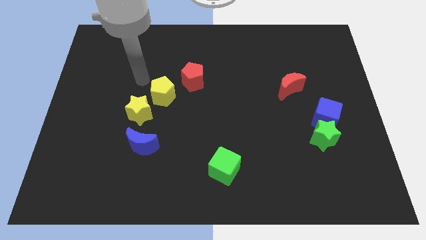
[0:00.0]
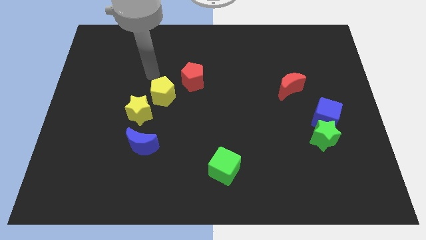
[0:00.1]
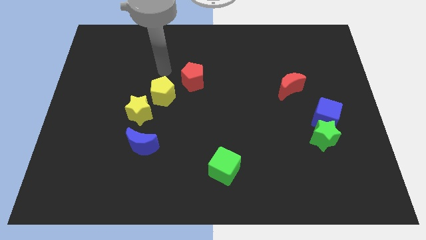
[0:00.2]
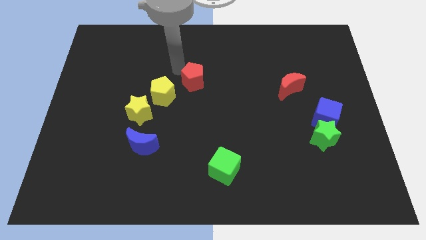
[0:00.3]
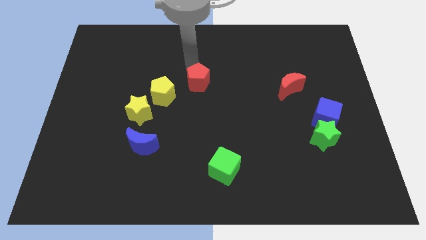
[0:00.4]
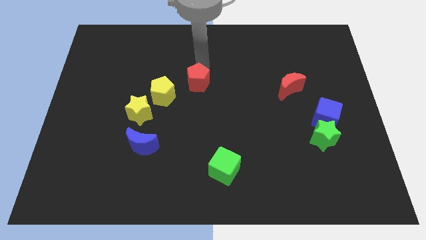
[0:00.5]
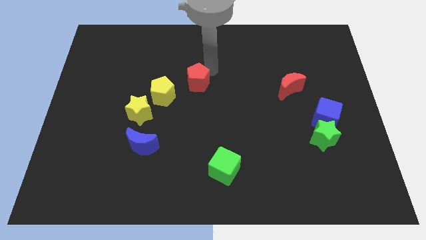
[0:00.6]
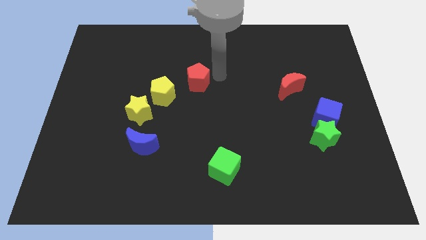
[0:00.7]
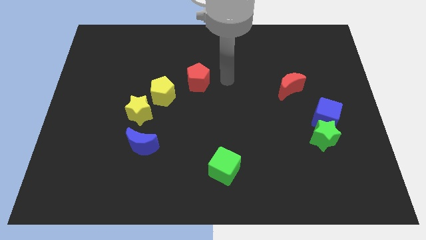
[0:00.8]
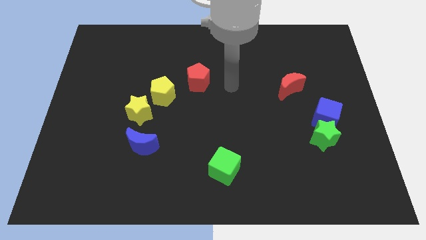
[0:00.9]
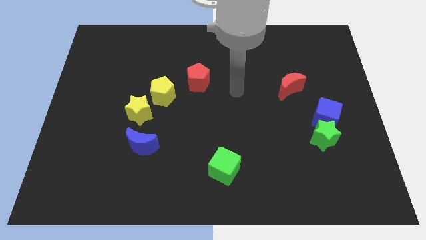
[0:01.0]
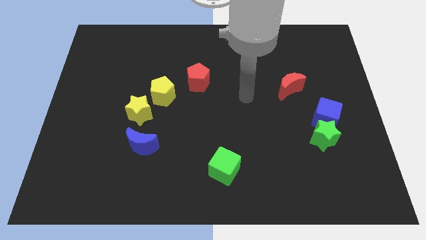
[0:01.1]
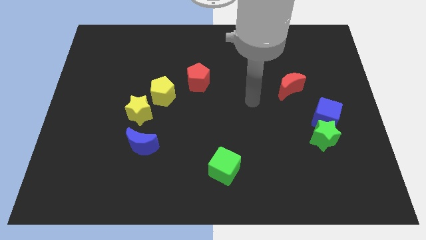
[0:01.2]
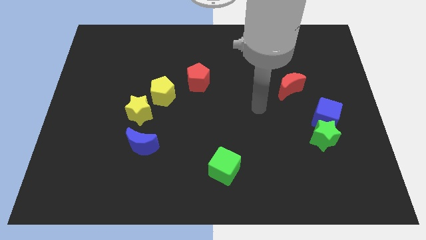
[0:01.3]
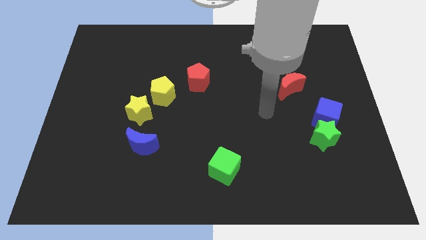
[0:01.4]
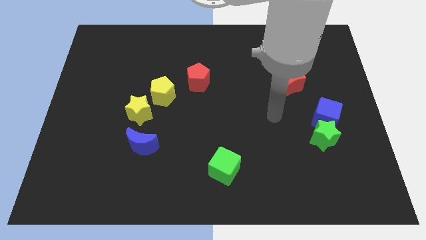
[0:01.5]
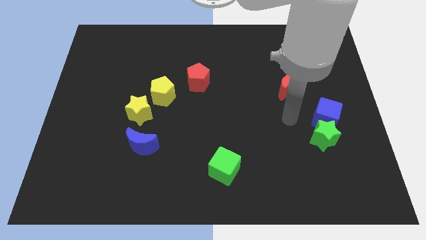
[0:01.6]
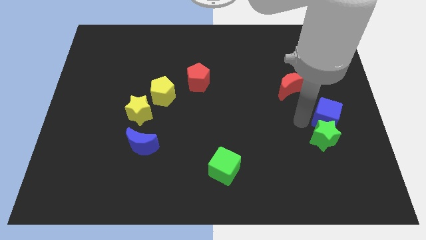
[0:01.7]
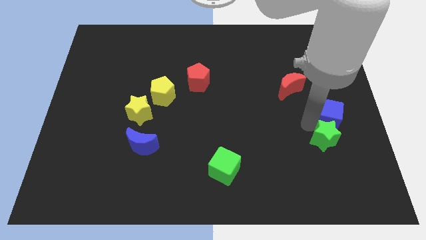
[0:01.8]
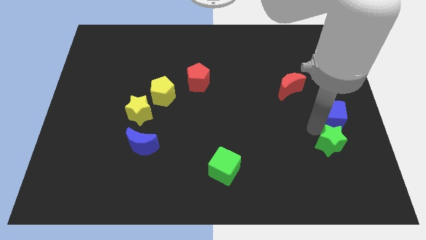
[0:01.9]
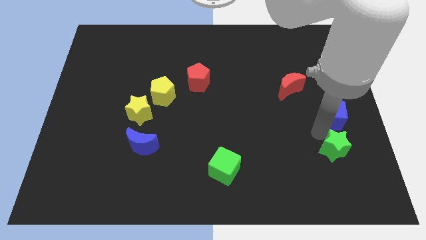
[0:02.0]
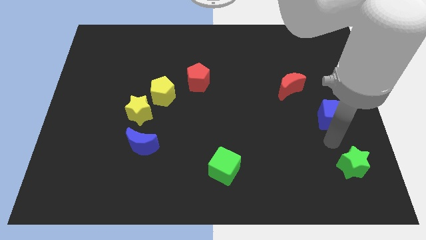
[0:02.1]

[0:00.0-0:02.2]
move the blue cube away from the green star

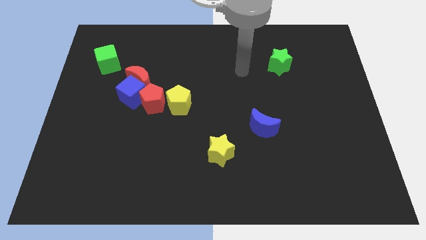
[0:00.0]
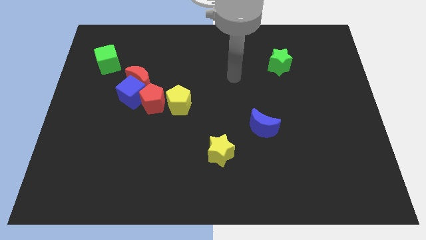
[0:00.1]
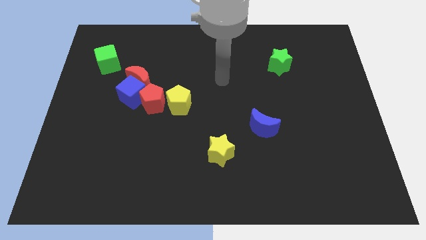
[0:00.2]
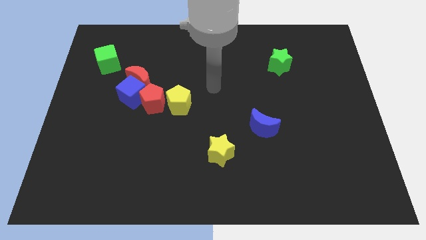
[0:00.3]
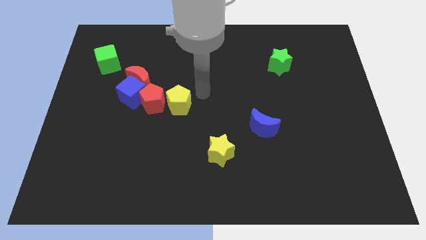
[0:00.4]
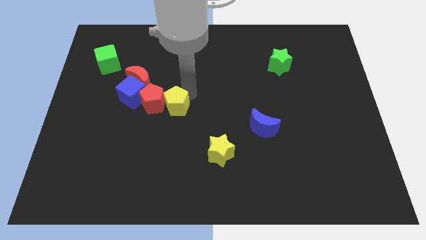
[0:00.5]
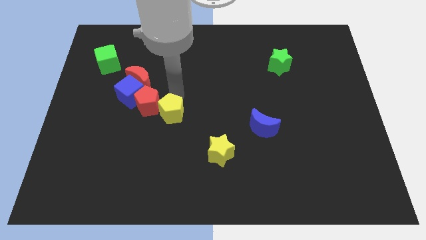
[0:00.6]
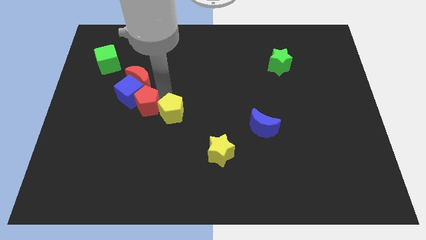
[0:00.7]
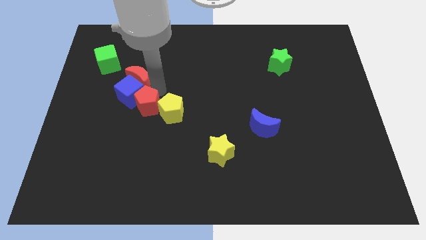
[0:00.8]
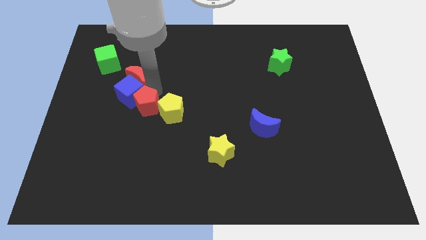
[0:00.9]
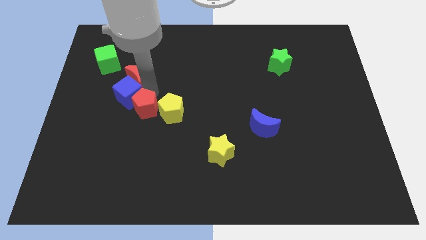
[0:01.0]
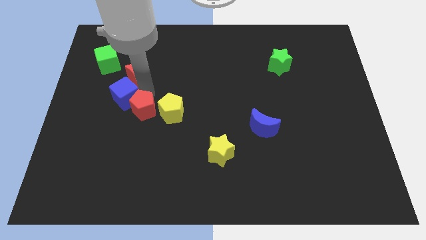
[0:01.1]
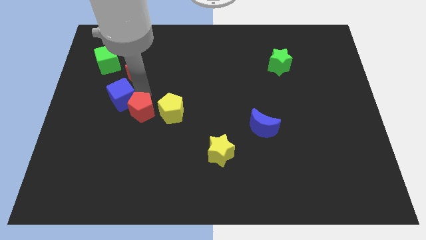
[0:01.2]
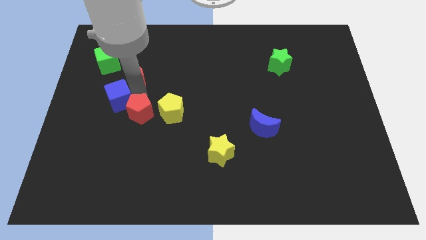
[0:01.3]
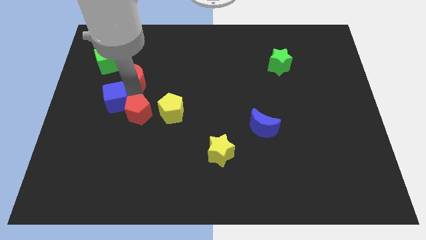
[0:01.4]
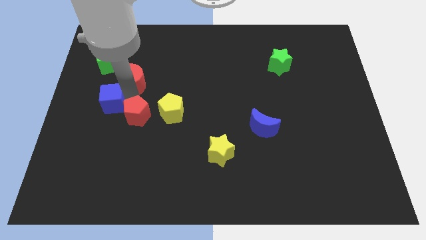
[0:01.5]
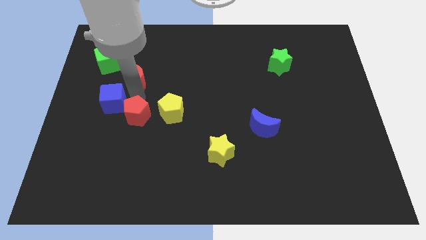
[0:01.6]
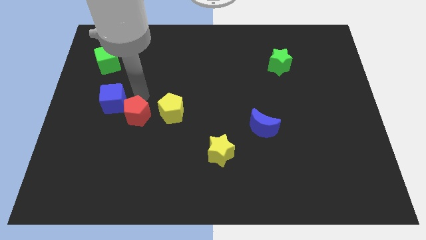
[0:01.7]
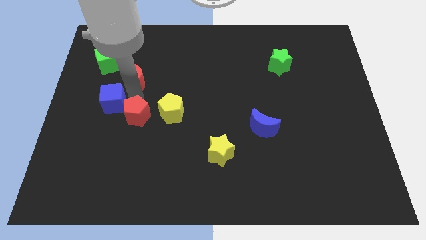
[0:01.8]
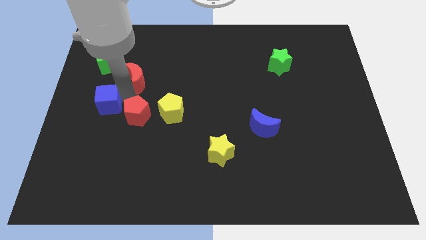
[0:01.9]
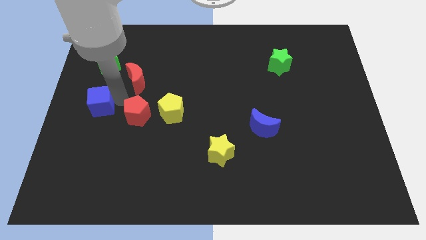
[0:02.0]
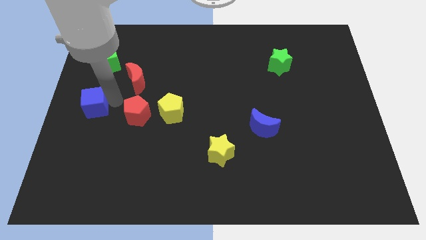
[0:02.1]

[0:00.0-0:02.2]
separate the blue cube from the red moon and red pentagon

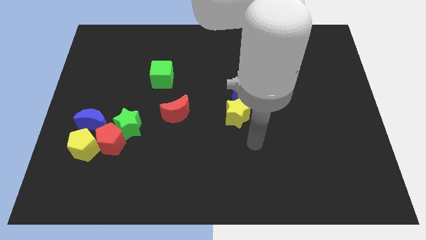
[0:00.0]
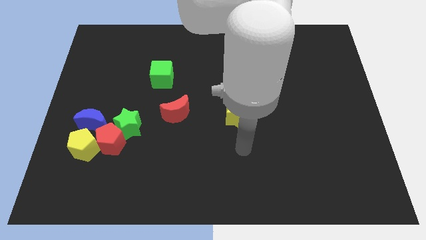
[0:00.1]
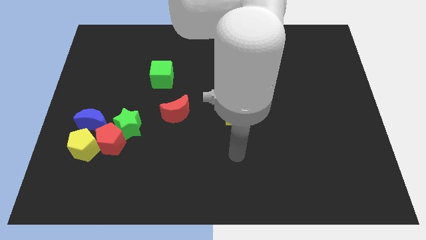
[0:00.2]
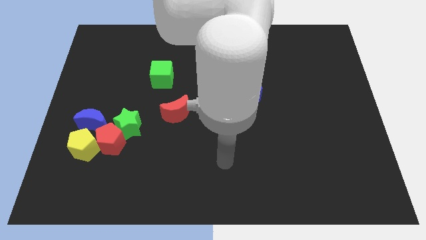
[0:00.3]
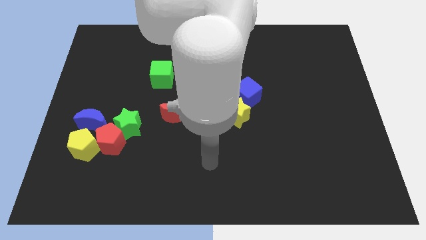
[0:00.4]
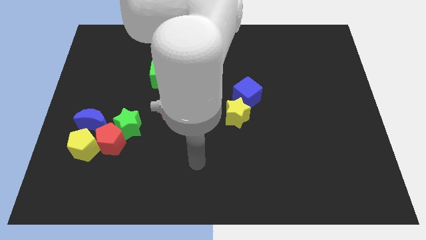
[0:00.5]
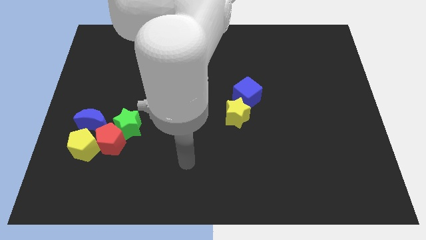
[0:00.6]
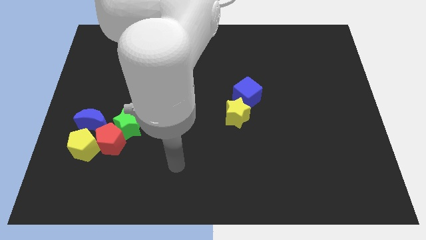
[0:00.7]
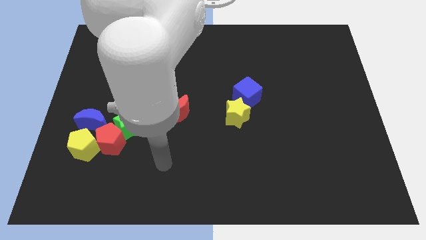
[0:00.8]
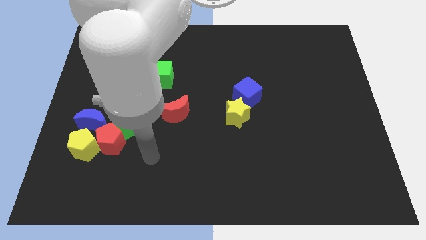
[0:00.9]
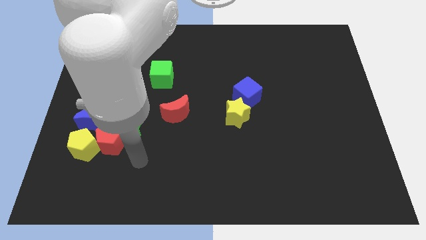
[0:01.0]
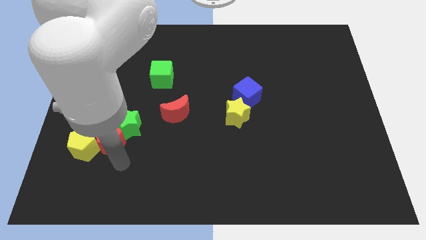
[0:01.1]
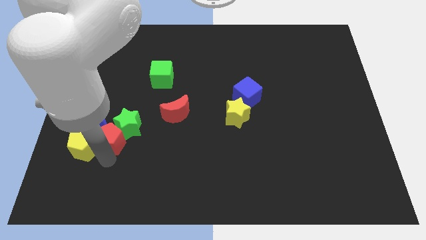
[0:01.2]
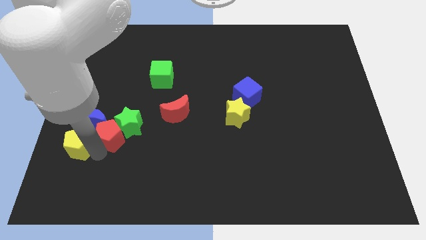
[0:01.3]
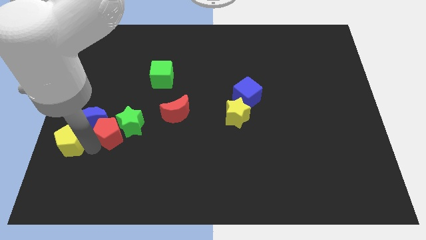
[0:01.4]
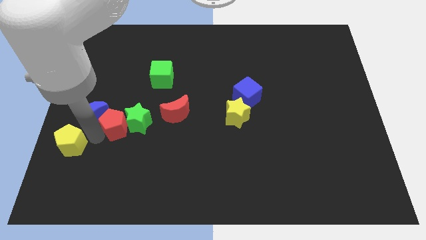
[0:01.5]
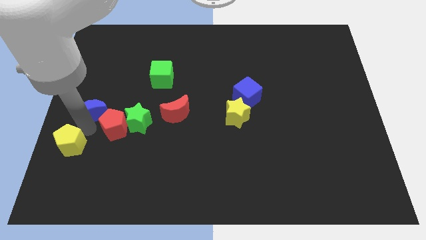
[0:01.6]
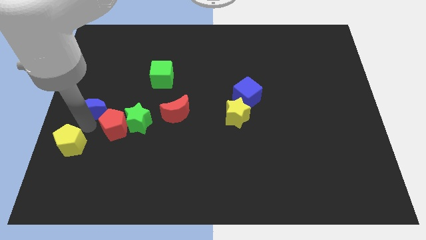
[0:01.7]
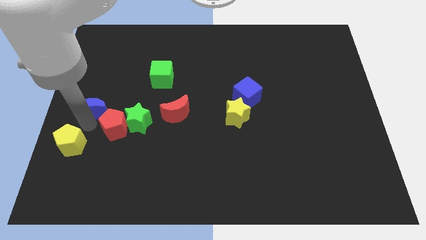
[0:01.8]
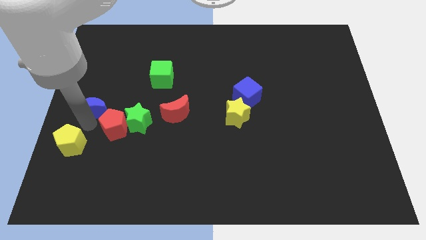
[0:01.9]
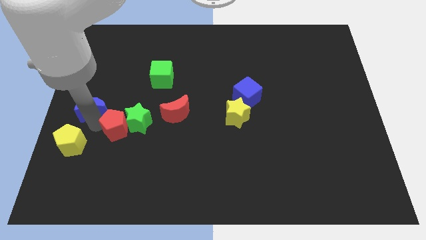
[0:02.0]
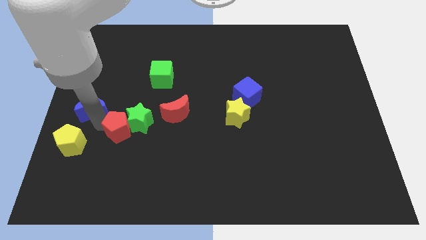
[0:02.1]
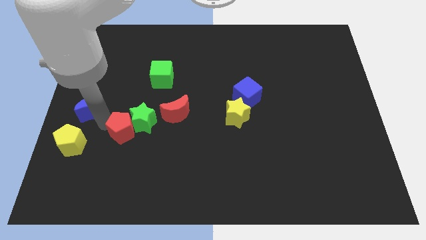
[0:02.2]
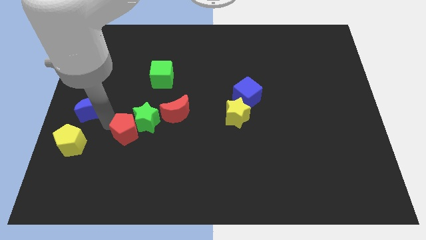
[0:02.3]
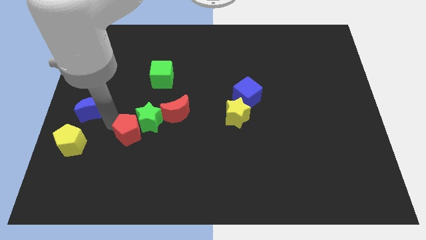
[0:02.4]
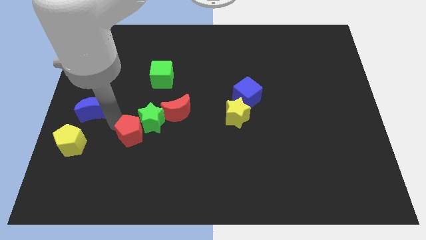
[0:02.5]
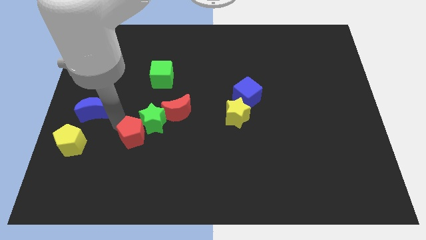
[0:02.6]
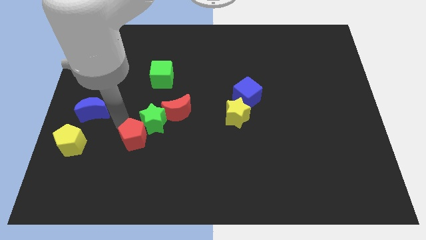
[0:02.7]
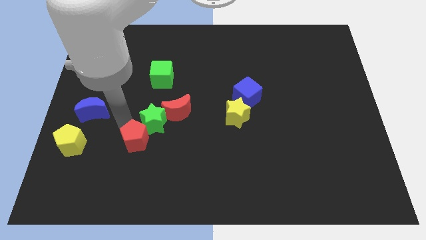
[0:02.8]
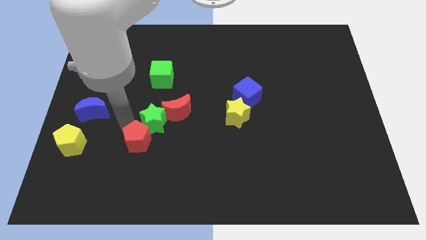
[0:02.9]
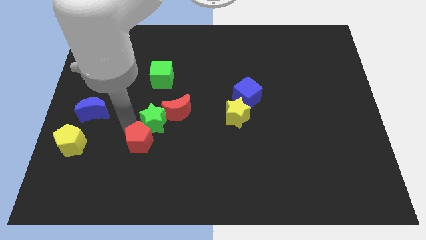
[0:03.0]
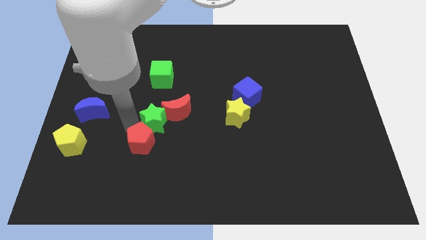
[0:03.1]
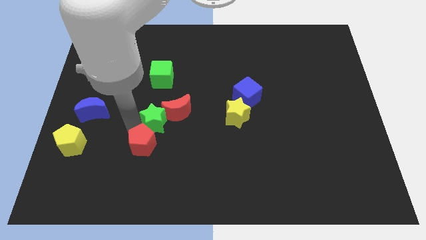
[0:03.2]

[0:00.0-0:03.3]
pull the red pentagon apart from the group of blocks

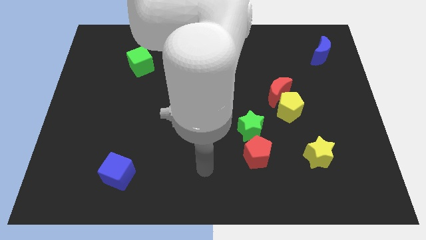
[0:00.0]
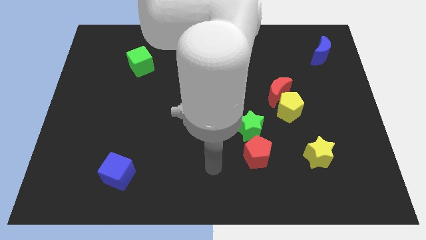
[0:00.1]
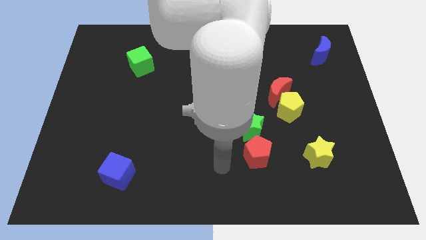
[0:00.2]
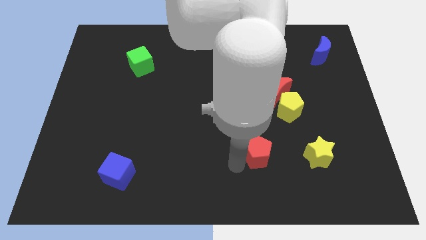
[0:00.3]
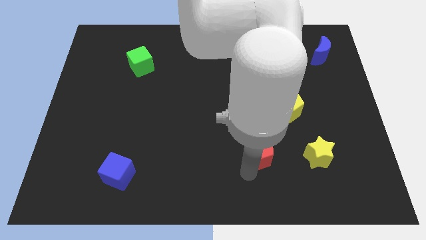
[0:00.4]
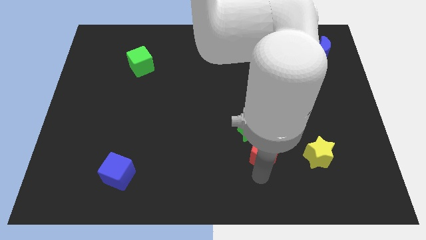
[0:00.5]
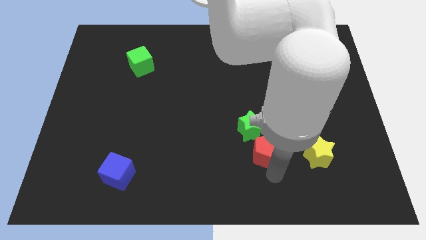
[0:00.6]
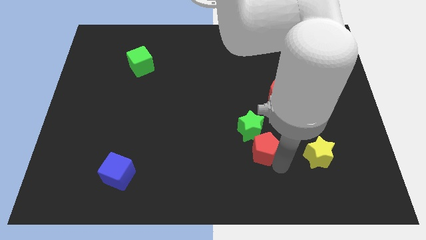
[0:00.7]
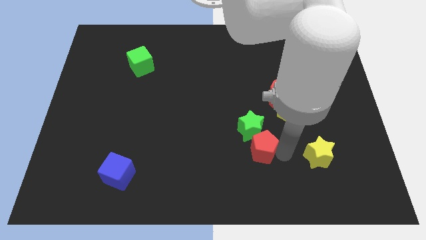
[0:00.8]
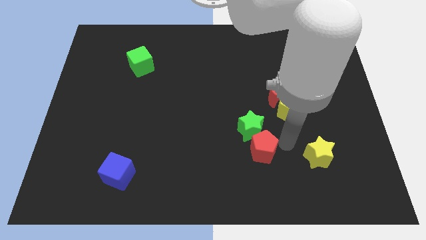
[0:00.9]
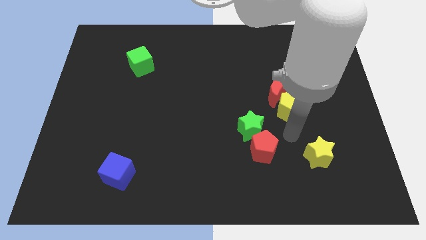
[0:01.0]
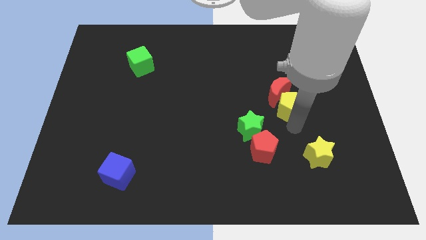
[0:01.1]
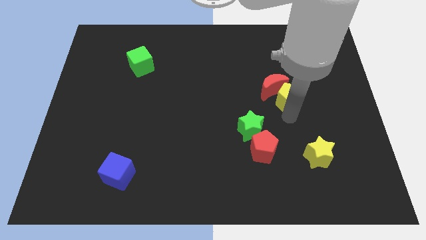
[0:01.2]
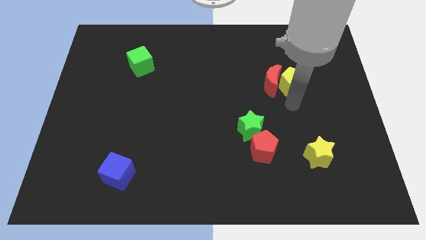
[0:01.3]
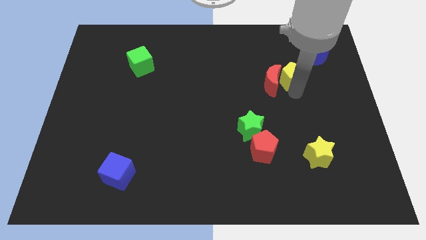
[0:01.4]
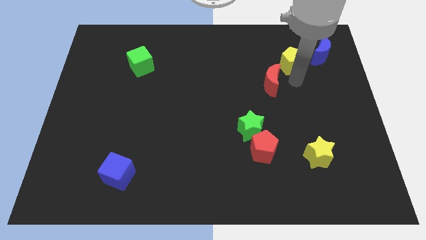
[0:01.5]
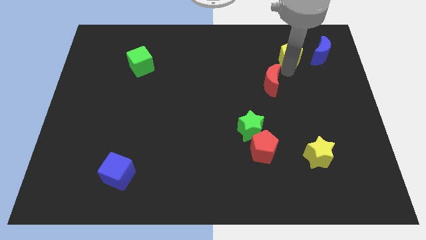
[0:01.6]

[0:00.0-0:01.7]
pull the red moon apart from the yellow pentagon
